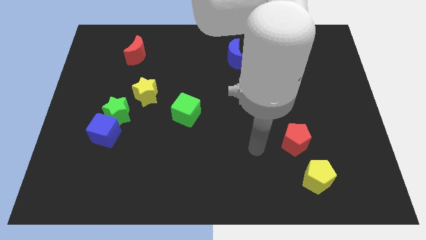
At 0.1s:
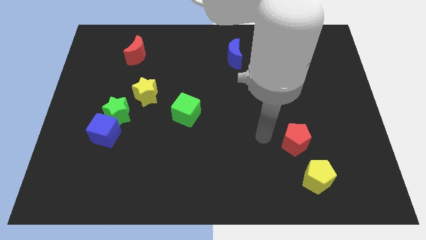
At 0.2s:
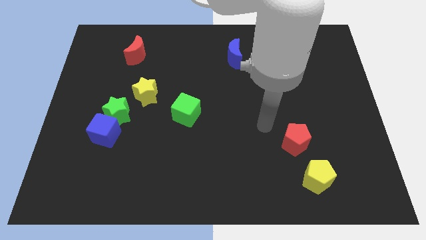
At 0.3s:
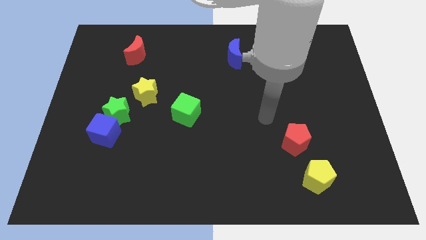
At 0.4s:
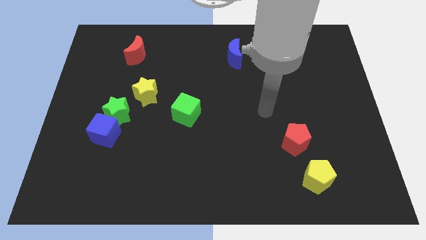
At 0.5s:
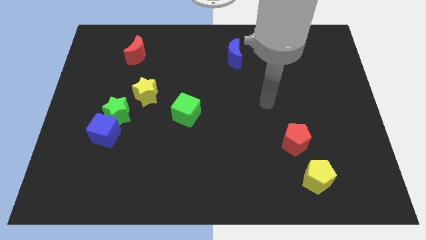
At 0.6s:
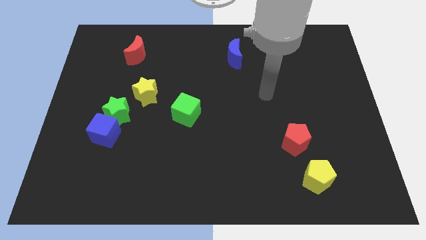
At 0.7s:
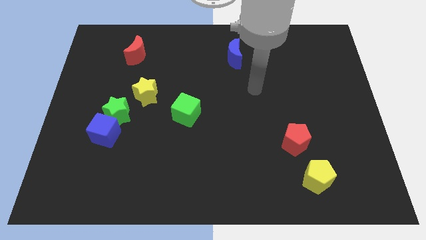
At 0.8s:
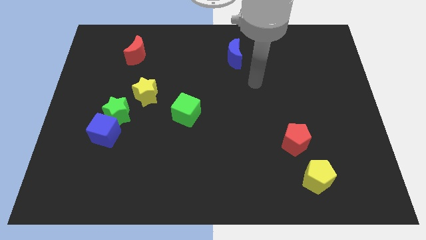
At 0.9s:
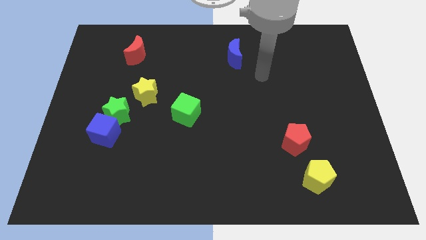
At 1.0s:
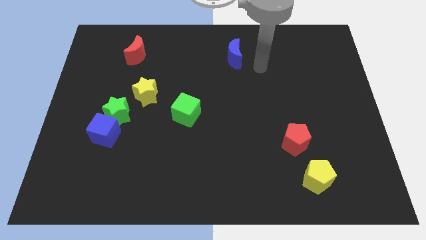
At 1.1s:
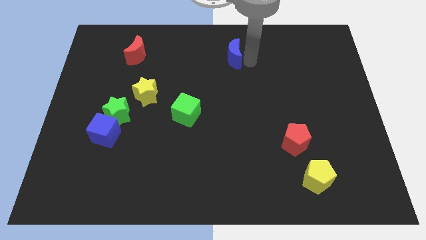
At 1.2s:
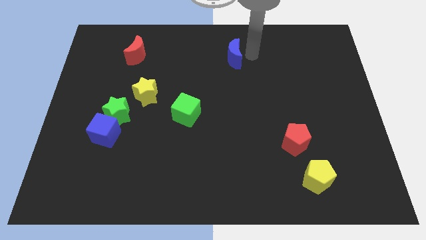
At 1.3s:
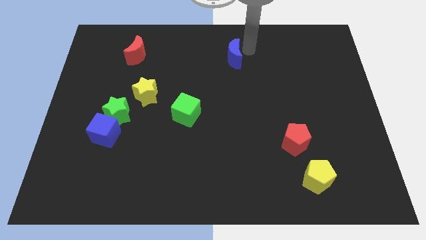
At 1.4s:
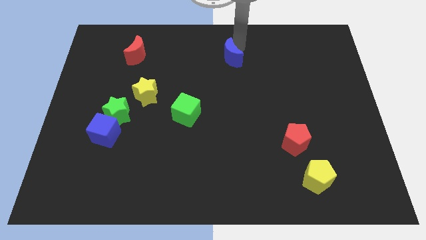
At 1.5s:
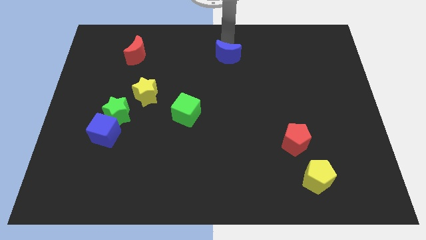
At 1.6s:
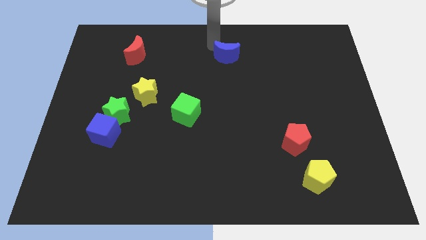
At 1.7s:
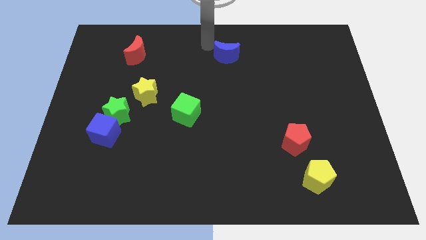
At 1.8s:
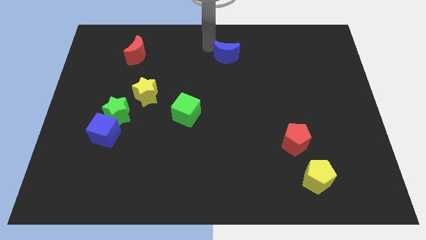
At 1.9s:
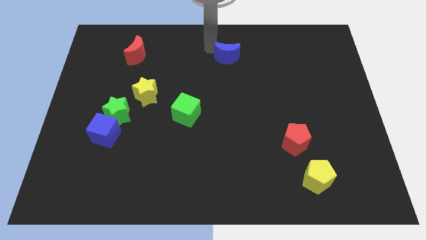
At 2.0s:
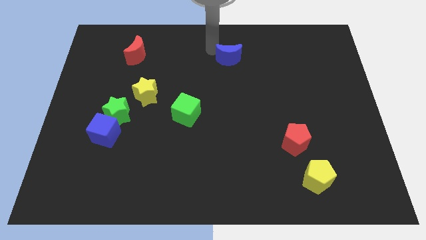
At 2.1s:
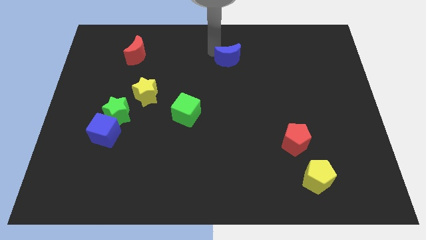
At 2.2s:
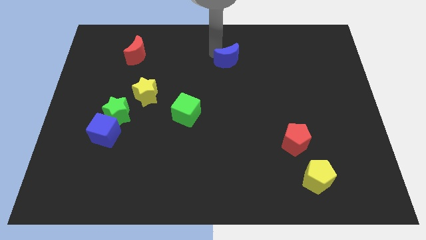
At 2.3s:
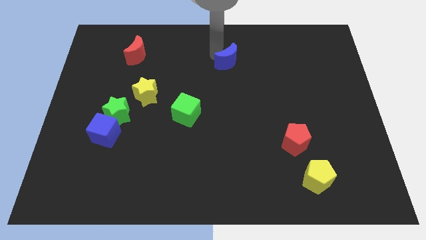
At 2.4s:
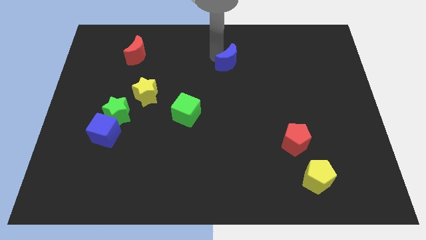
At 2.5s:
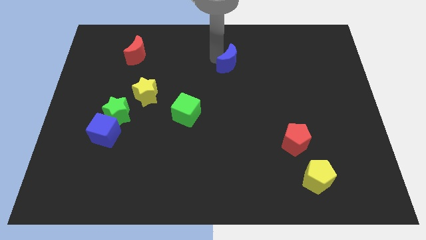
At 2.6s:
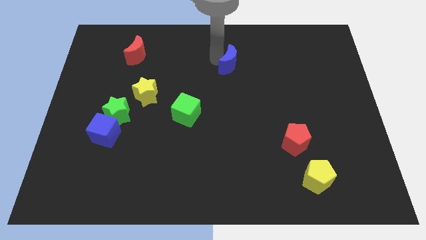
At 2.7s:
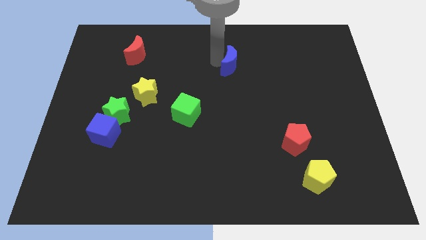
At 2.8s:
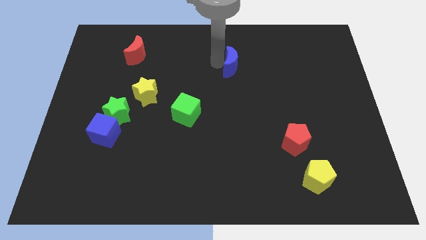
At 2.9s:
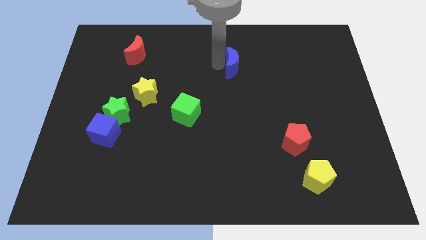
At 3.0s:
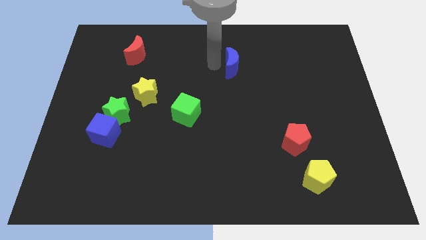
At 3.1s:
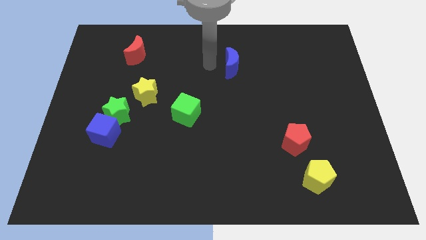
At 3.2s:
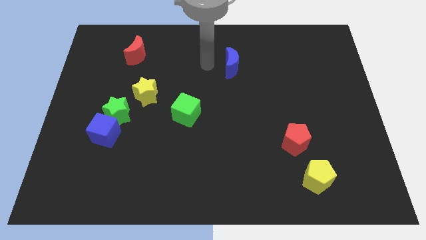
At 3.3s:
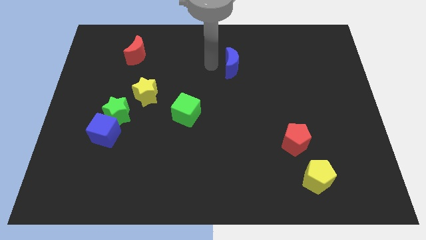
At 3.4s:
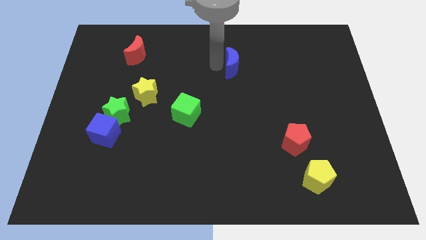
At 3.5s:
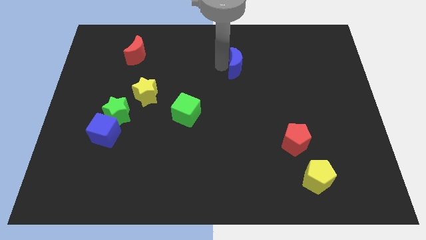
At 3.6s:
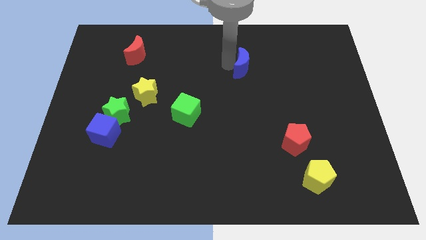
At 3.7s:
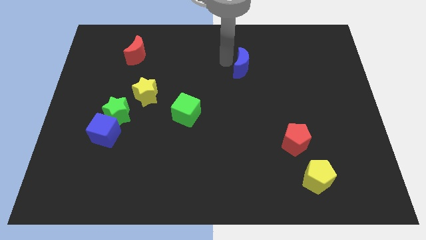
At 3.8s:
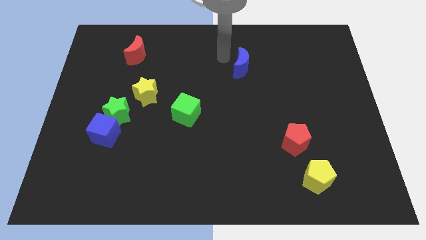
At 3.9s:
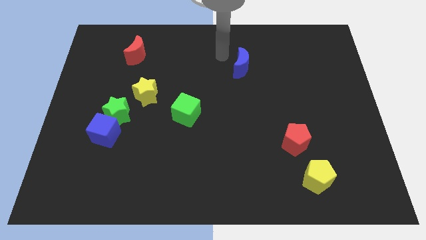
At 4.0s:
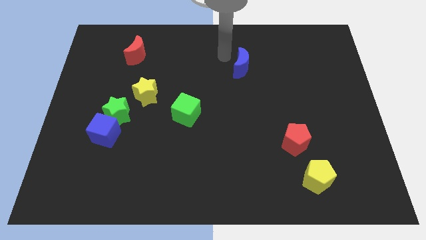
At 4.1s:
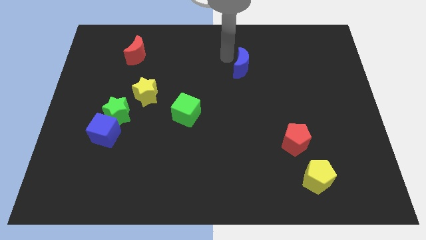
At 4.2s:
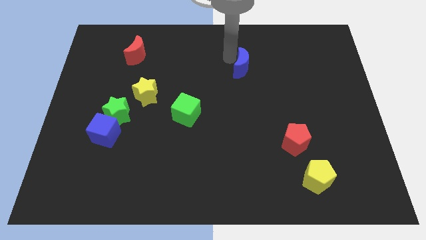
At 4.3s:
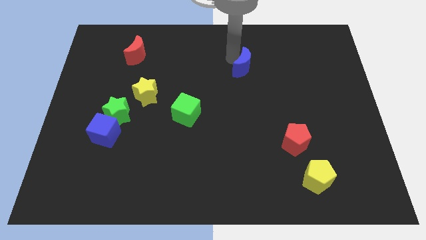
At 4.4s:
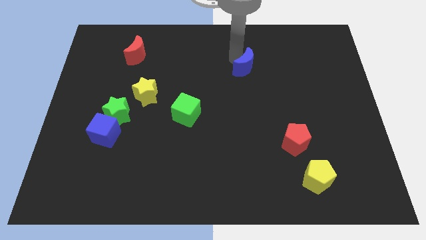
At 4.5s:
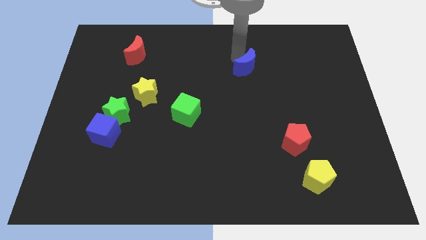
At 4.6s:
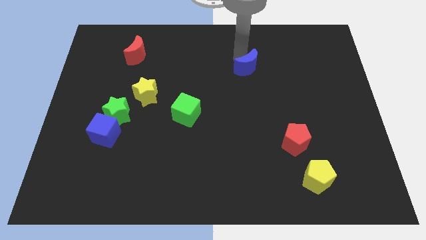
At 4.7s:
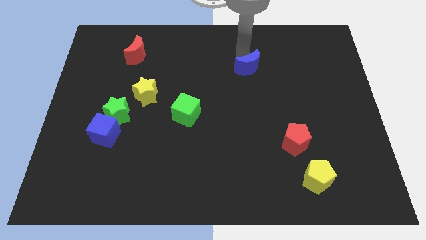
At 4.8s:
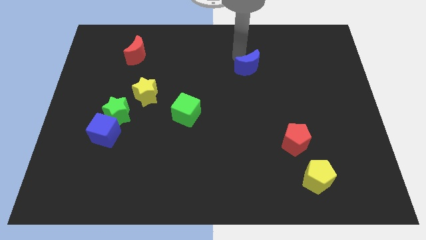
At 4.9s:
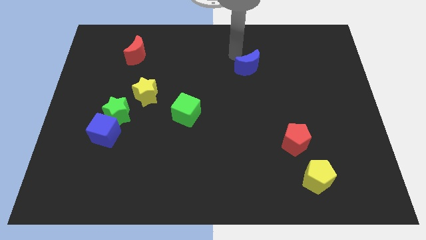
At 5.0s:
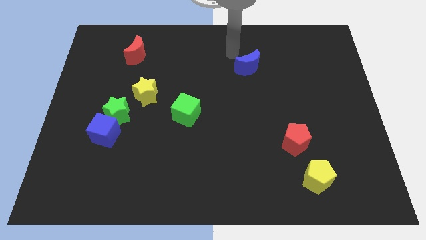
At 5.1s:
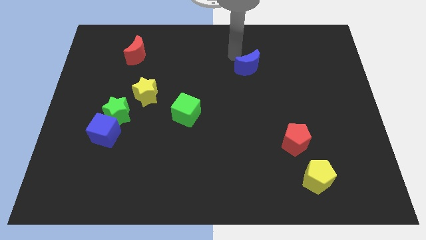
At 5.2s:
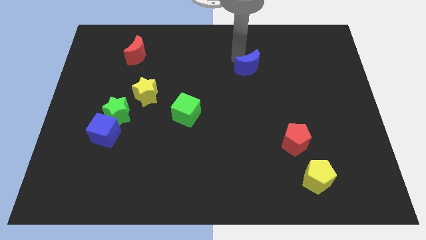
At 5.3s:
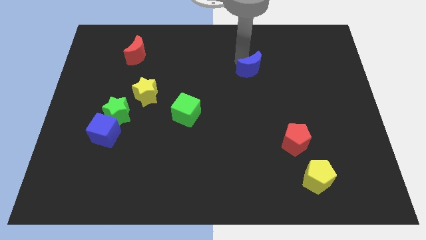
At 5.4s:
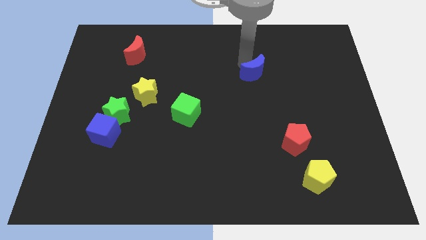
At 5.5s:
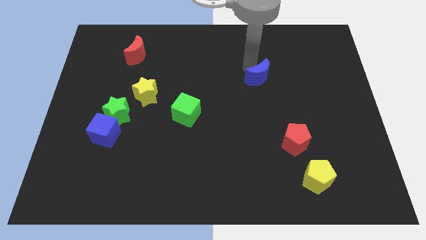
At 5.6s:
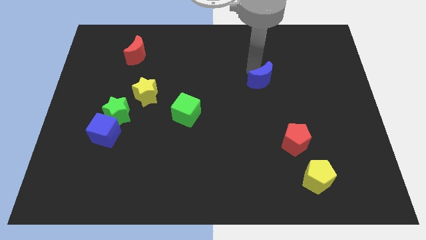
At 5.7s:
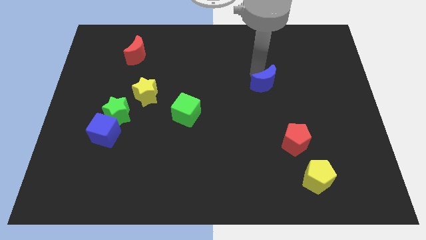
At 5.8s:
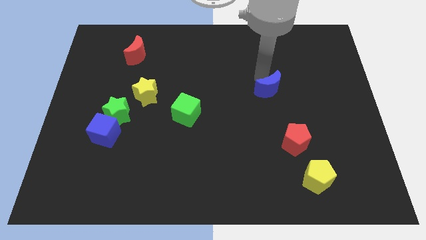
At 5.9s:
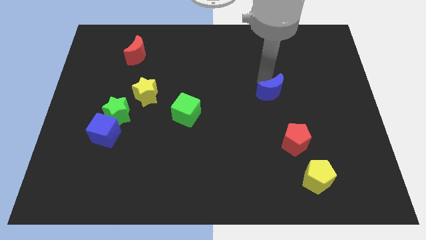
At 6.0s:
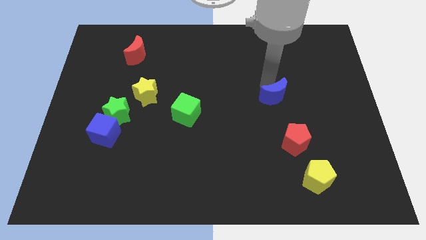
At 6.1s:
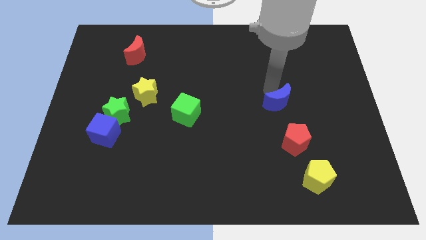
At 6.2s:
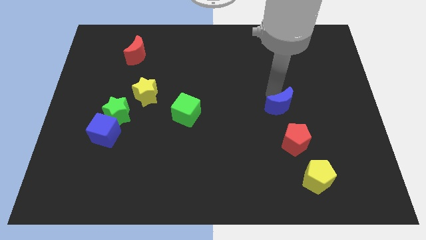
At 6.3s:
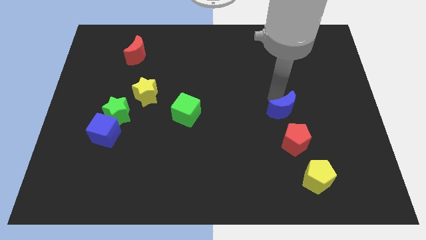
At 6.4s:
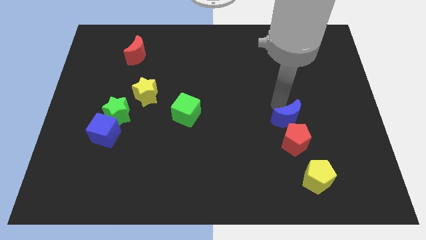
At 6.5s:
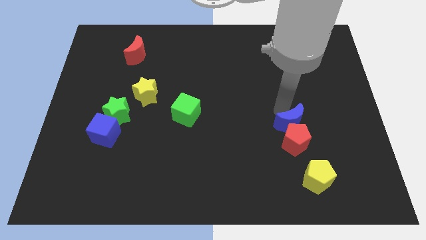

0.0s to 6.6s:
push the blue moon to the top of the yellow pentagon

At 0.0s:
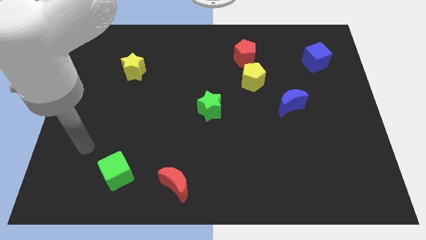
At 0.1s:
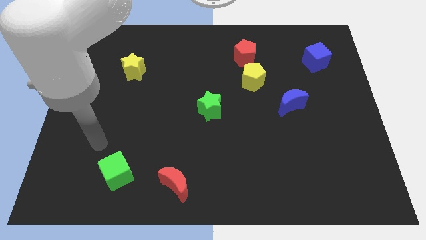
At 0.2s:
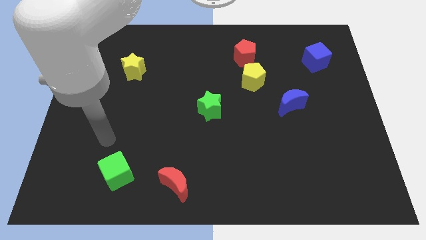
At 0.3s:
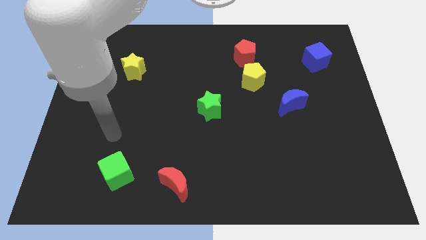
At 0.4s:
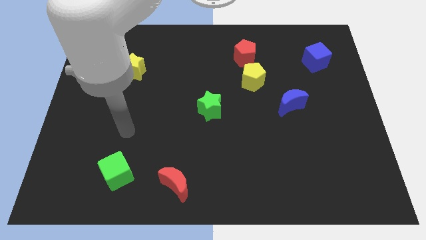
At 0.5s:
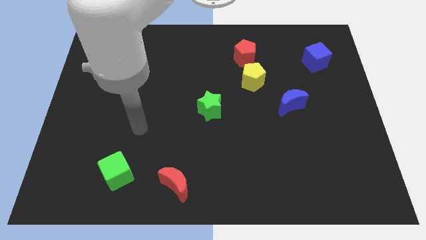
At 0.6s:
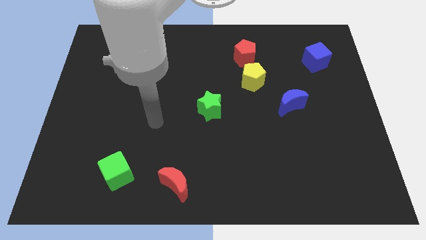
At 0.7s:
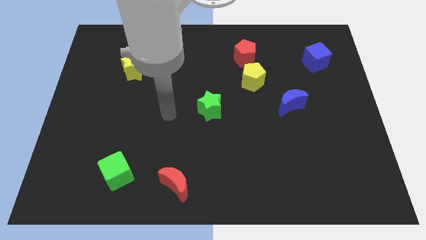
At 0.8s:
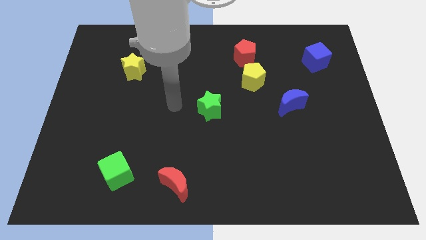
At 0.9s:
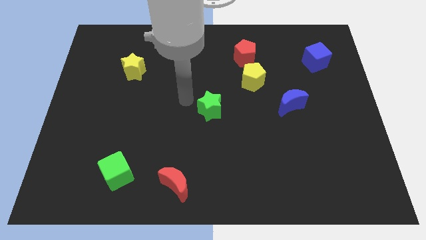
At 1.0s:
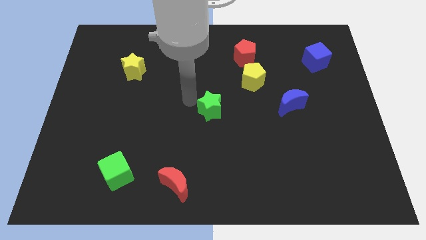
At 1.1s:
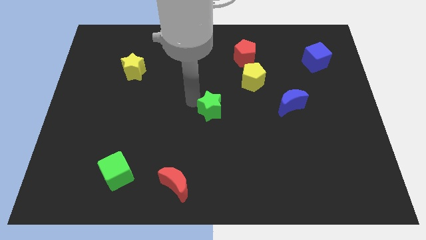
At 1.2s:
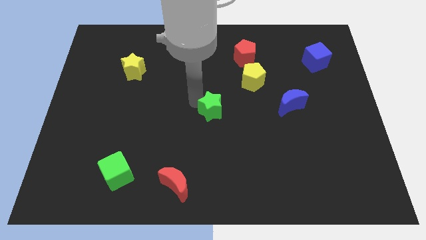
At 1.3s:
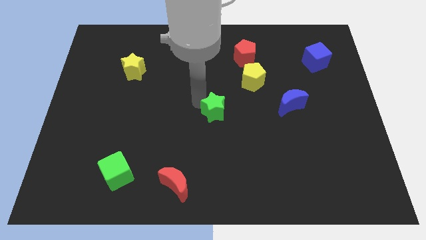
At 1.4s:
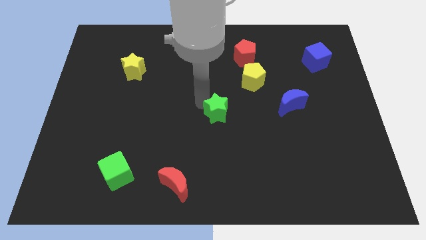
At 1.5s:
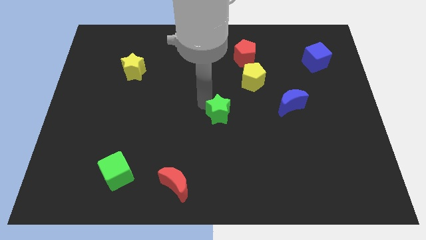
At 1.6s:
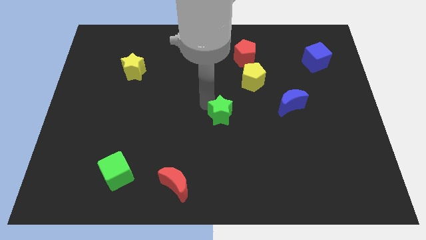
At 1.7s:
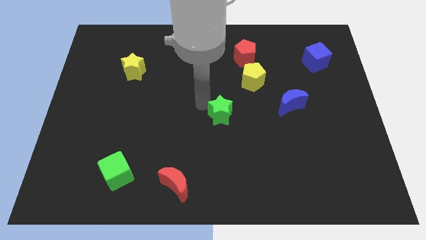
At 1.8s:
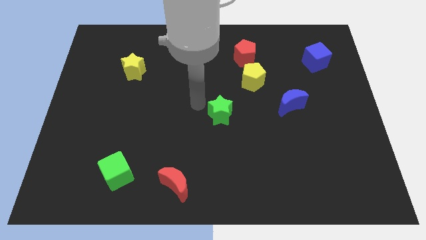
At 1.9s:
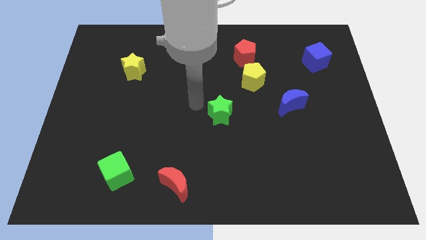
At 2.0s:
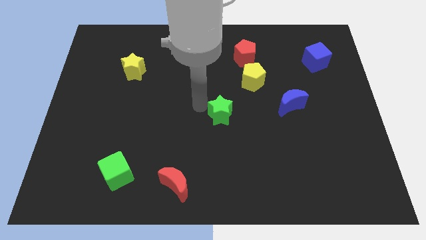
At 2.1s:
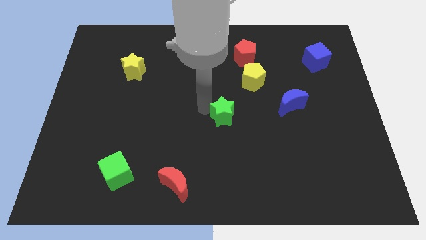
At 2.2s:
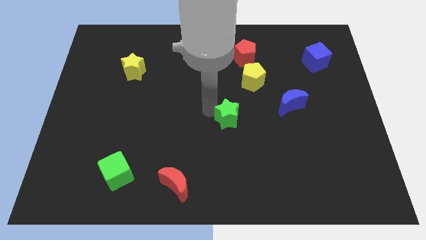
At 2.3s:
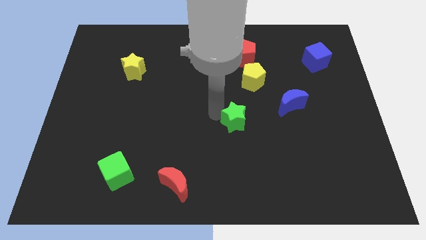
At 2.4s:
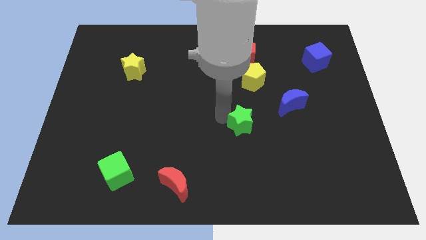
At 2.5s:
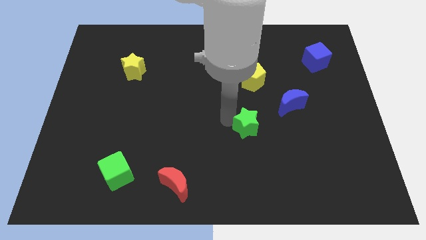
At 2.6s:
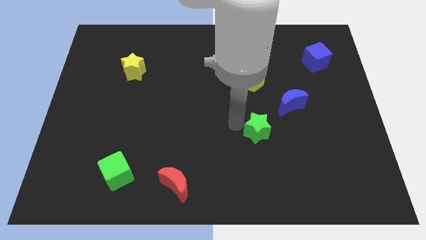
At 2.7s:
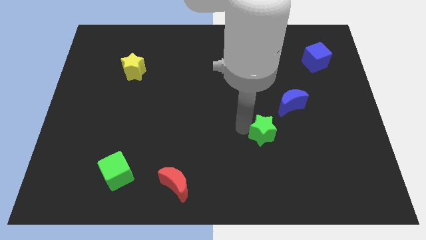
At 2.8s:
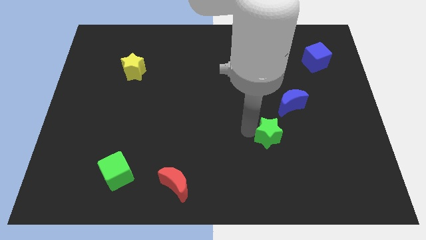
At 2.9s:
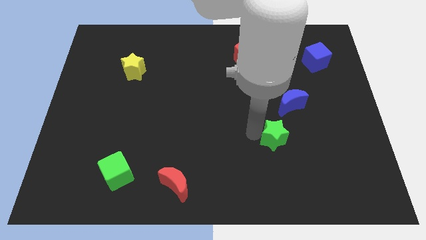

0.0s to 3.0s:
put the green star below the blue moon
